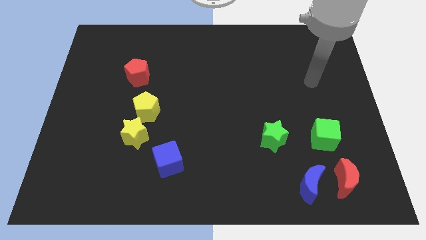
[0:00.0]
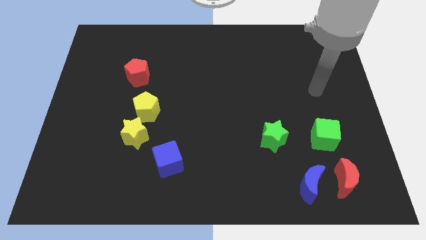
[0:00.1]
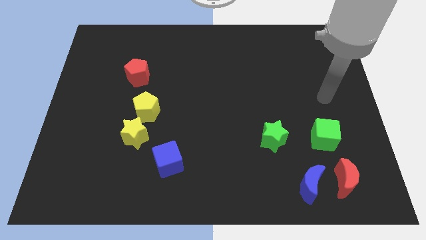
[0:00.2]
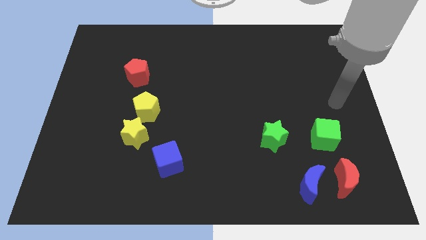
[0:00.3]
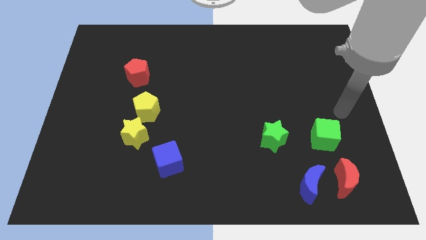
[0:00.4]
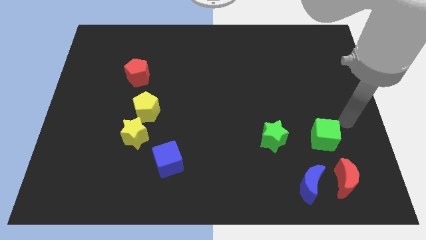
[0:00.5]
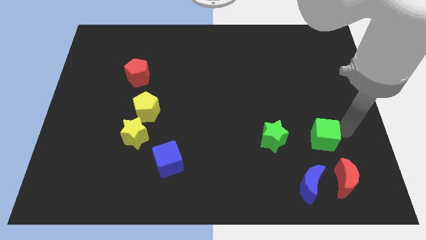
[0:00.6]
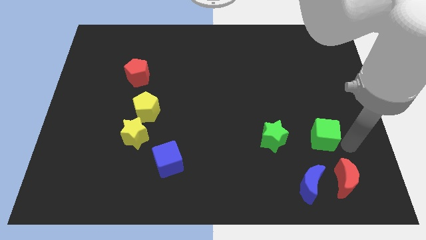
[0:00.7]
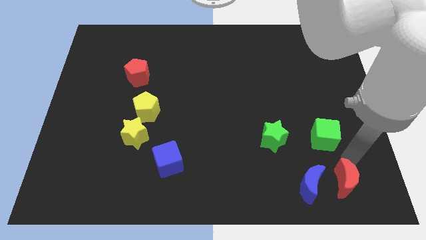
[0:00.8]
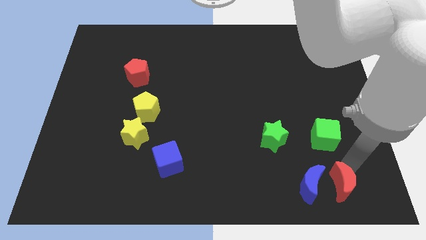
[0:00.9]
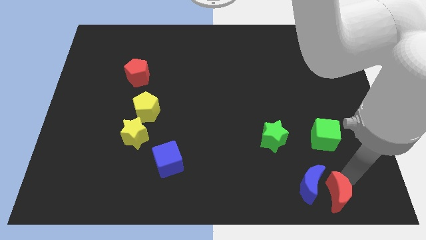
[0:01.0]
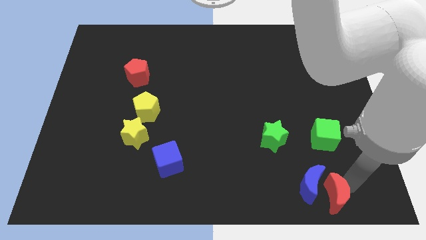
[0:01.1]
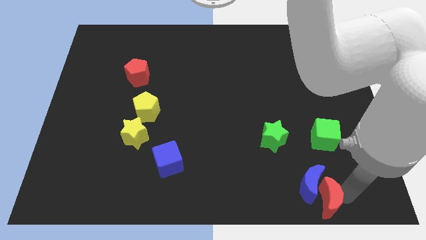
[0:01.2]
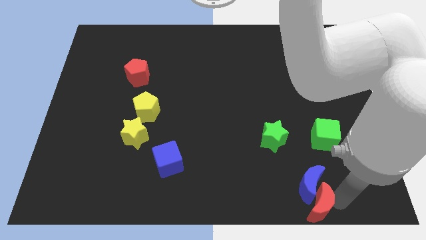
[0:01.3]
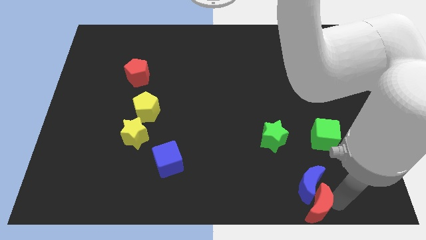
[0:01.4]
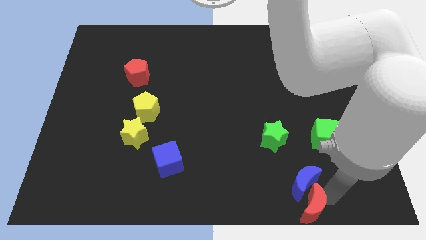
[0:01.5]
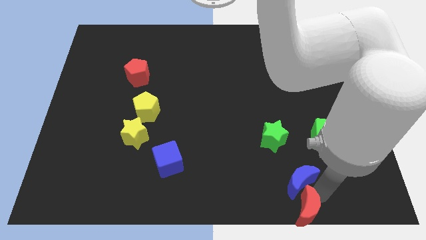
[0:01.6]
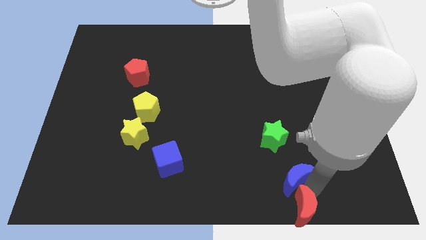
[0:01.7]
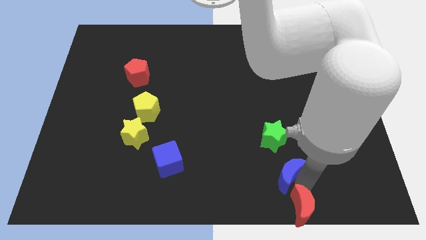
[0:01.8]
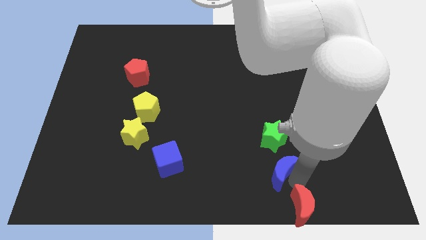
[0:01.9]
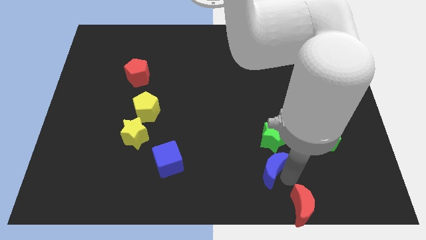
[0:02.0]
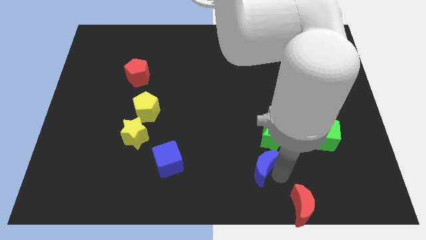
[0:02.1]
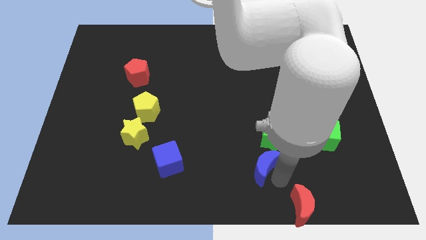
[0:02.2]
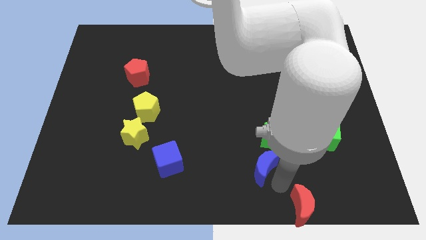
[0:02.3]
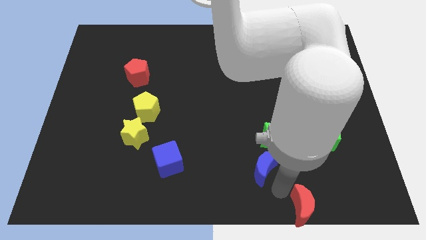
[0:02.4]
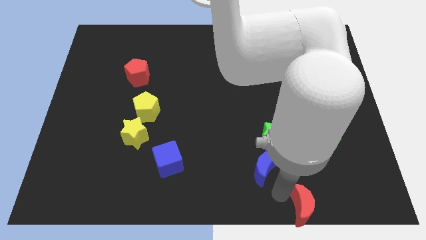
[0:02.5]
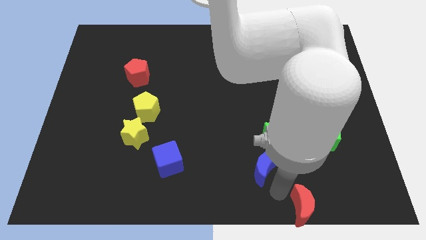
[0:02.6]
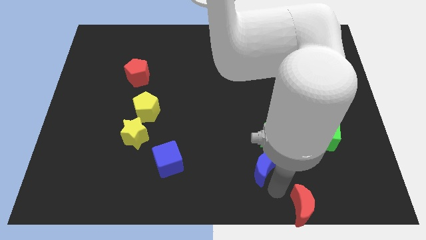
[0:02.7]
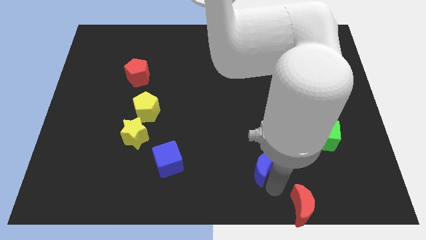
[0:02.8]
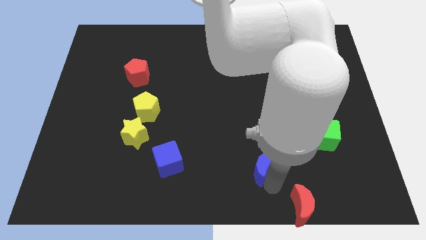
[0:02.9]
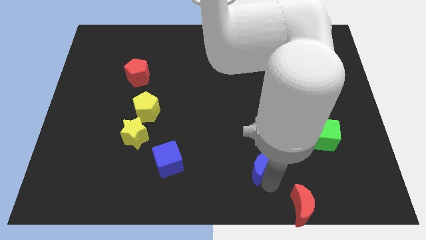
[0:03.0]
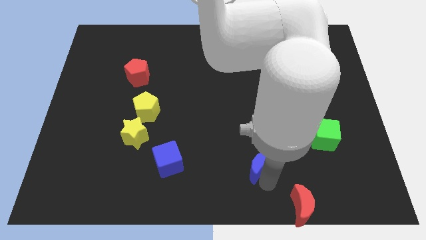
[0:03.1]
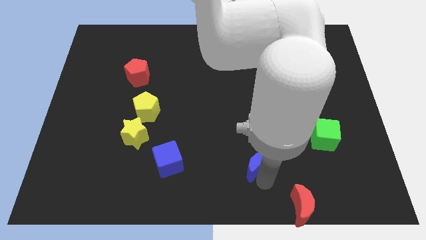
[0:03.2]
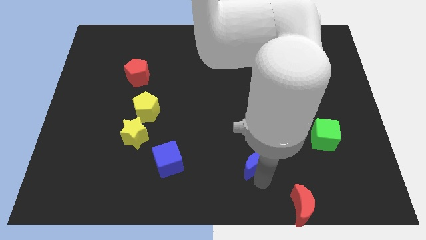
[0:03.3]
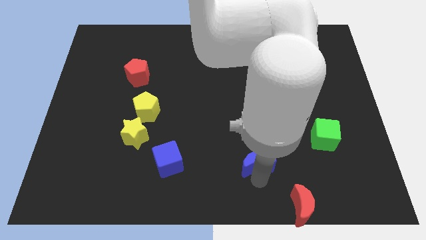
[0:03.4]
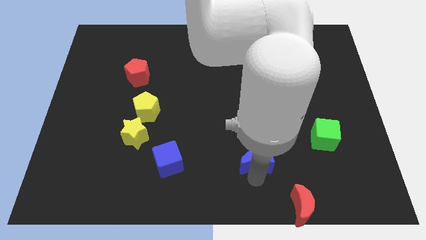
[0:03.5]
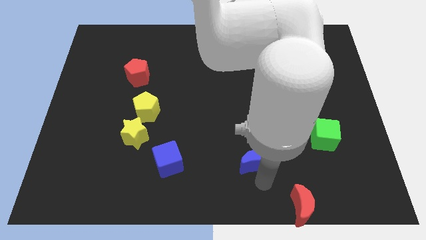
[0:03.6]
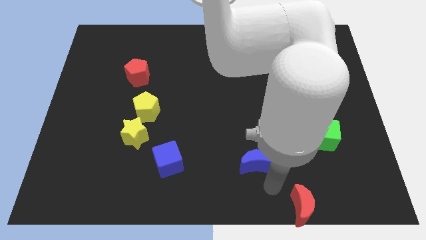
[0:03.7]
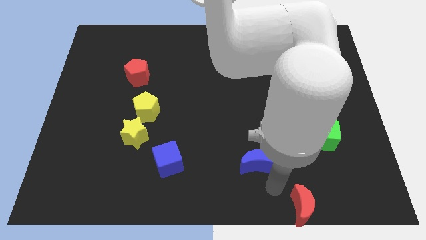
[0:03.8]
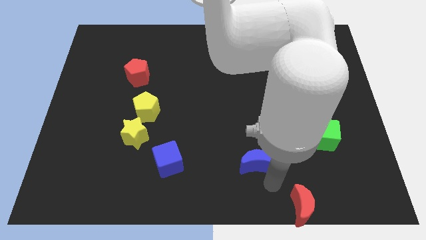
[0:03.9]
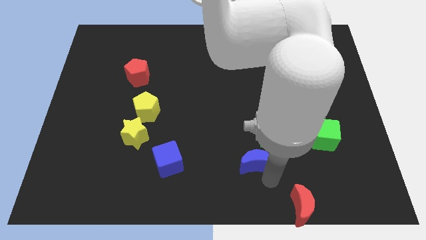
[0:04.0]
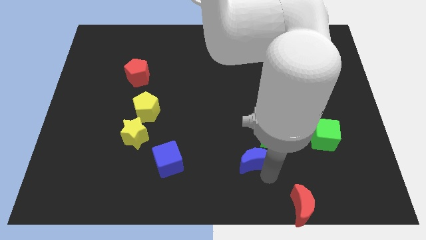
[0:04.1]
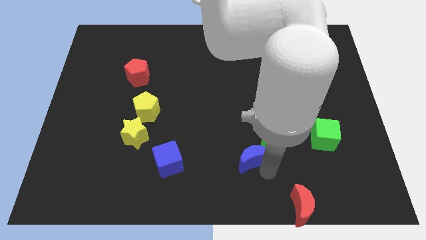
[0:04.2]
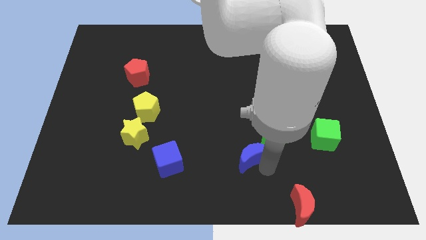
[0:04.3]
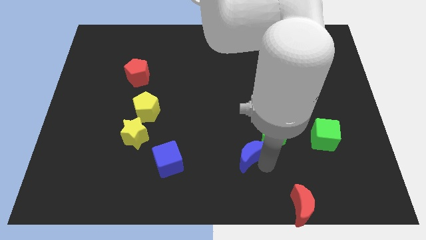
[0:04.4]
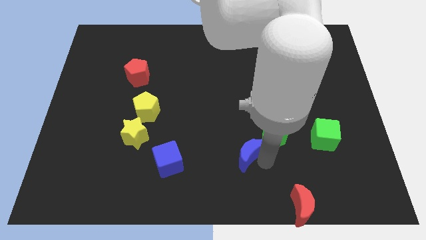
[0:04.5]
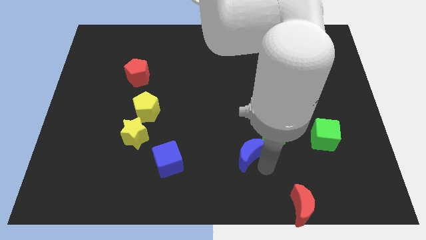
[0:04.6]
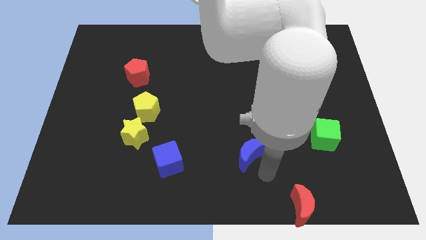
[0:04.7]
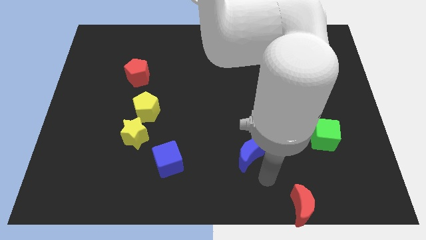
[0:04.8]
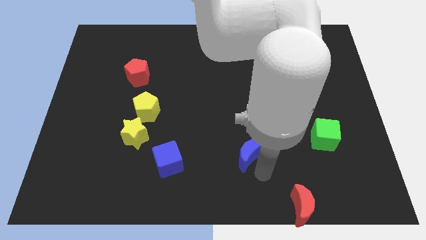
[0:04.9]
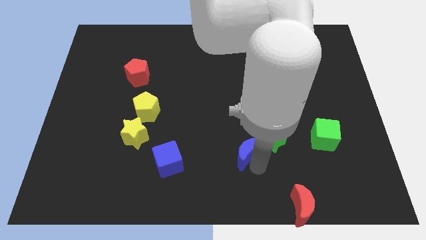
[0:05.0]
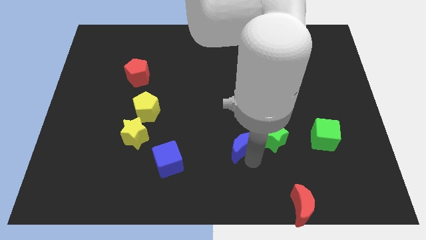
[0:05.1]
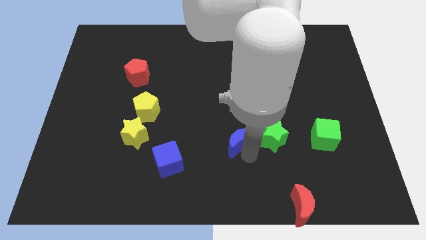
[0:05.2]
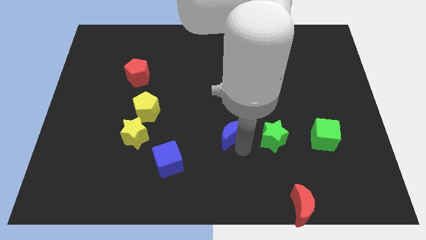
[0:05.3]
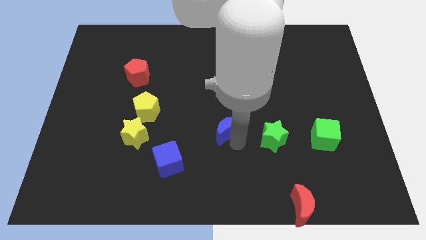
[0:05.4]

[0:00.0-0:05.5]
move the blue moon up and left

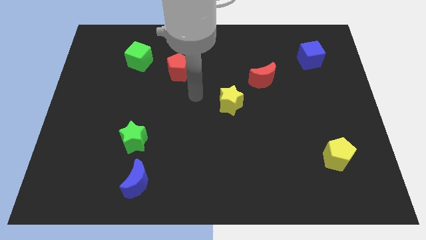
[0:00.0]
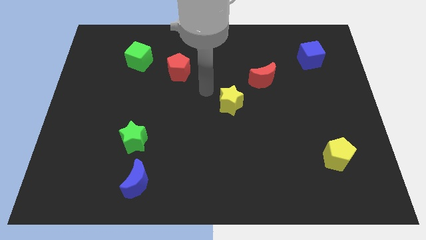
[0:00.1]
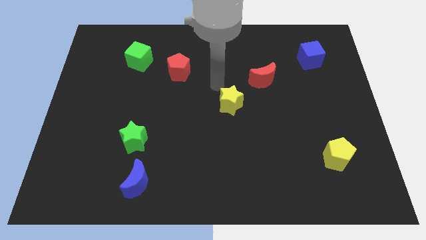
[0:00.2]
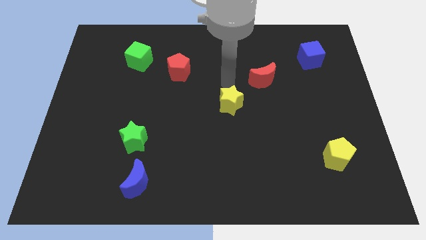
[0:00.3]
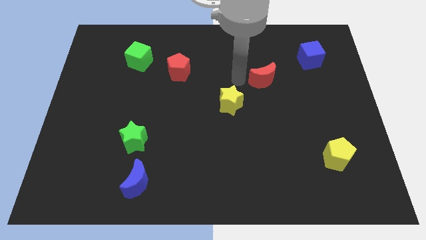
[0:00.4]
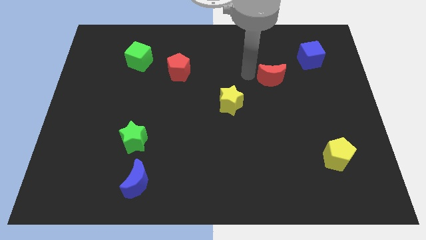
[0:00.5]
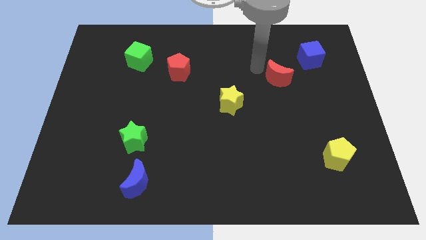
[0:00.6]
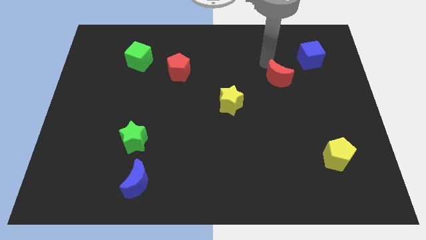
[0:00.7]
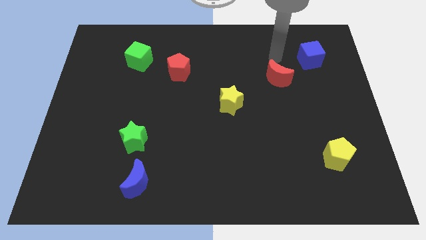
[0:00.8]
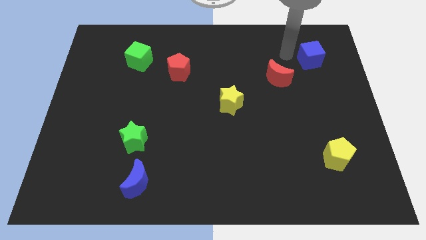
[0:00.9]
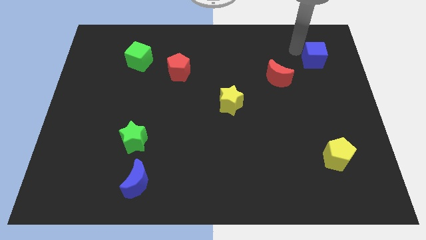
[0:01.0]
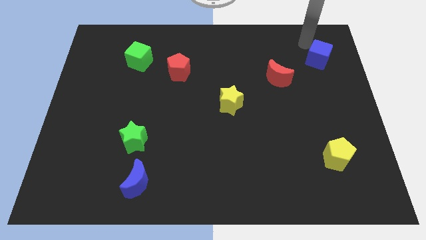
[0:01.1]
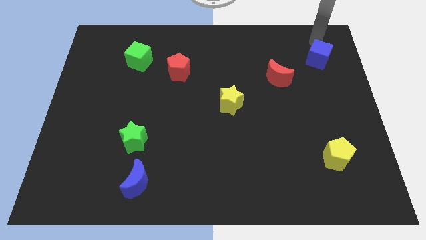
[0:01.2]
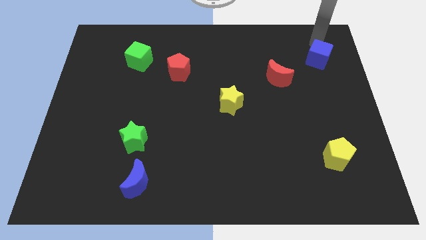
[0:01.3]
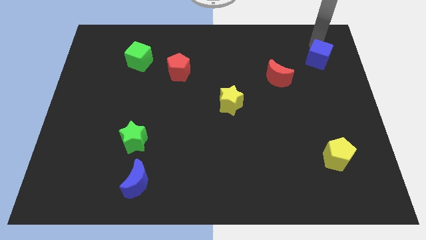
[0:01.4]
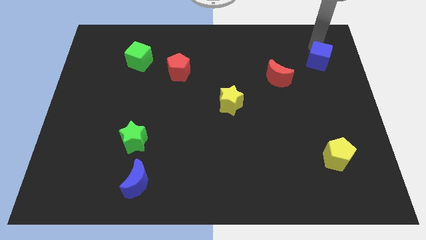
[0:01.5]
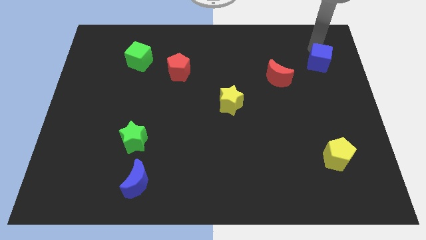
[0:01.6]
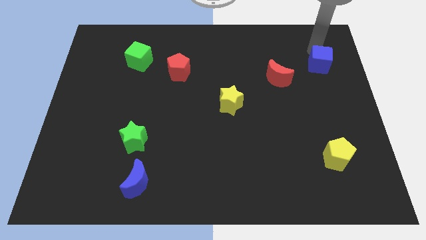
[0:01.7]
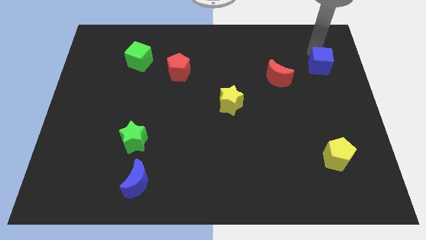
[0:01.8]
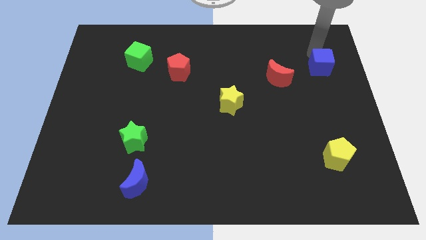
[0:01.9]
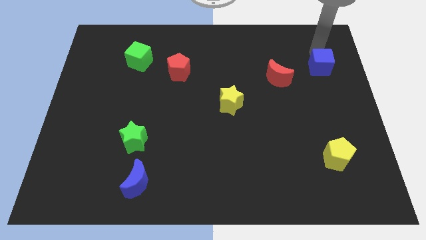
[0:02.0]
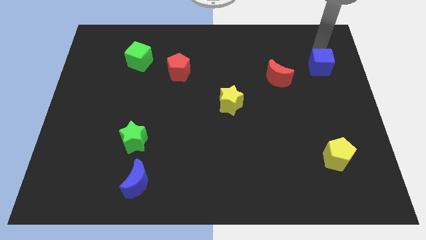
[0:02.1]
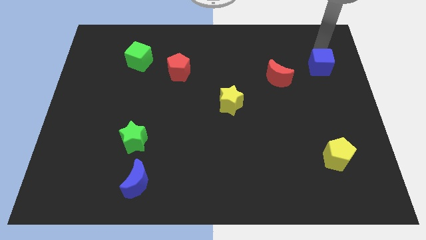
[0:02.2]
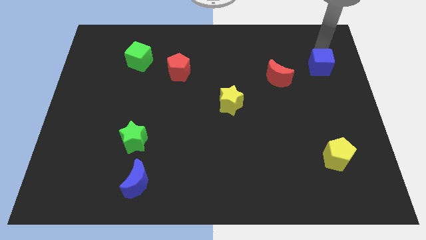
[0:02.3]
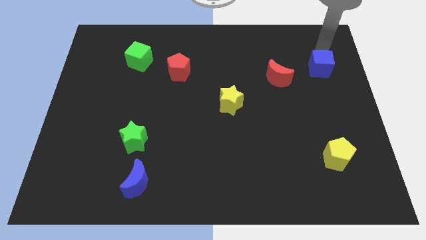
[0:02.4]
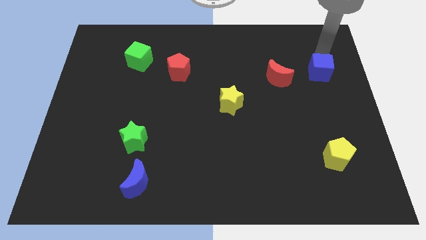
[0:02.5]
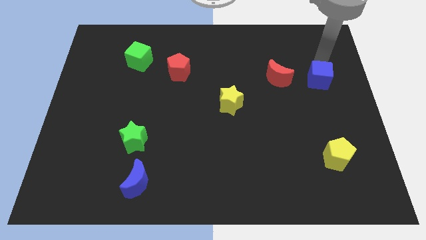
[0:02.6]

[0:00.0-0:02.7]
push the blue cube a little bit downwards
